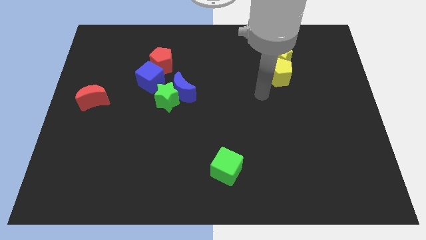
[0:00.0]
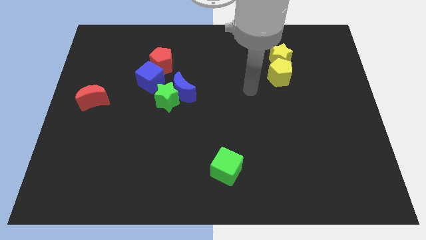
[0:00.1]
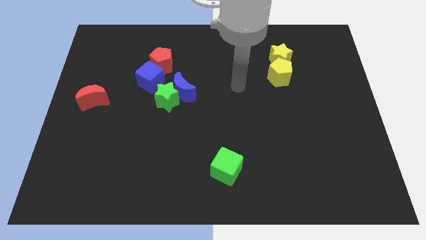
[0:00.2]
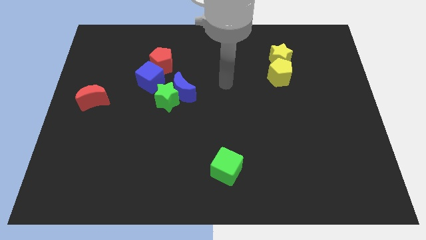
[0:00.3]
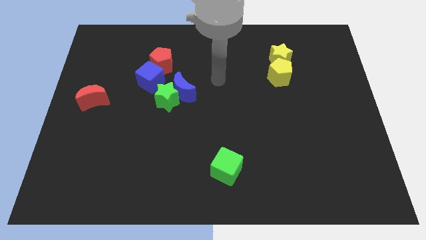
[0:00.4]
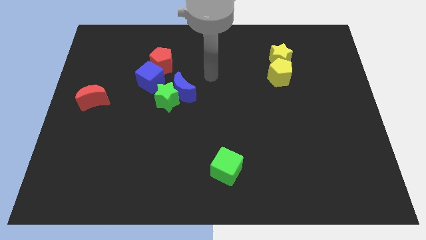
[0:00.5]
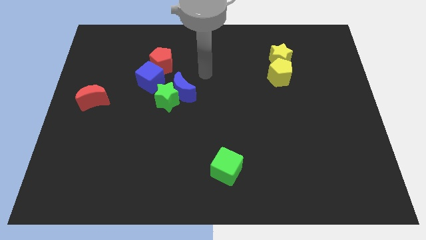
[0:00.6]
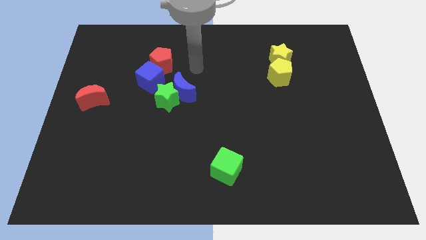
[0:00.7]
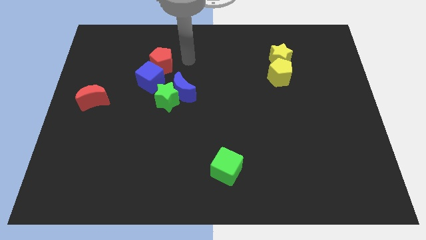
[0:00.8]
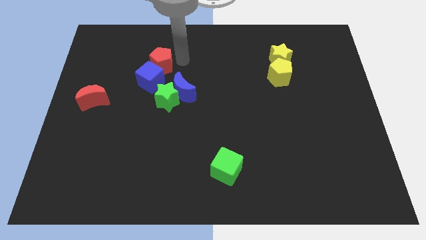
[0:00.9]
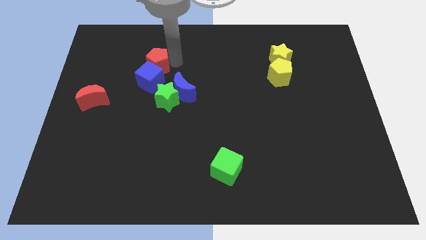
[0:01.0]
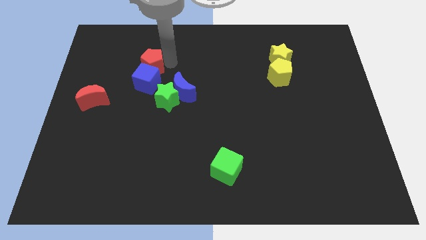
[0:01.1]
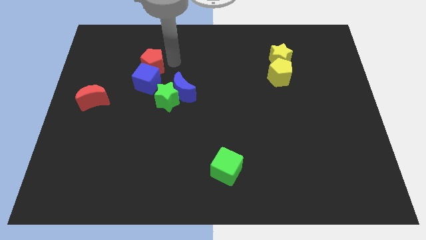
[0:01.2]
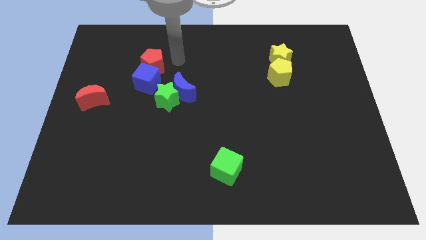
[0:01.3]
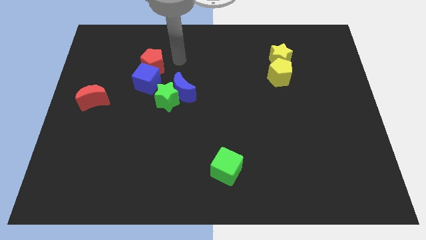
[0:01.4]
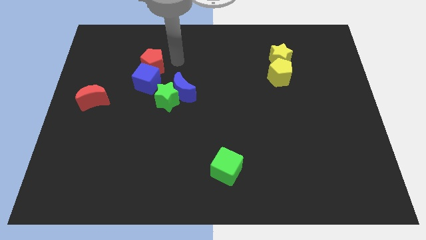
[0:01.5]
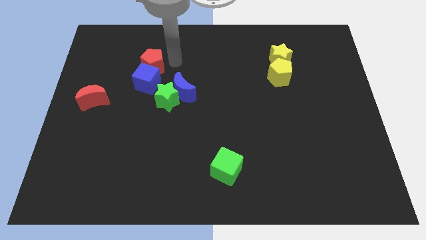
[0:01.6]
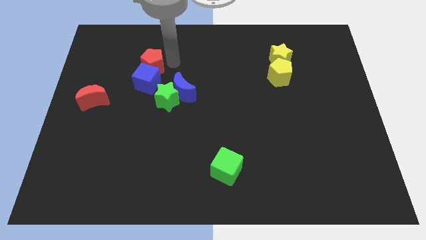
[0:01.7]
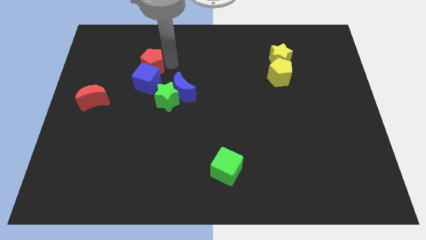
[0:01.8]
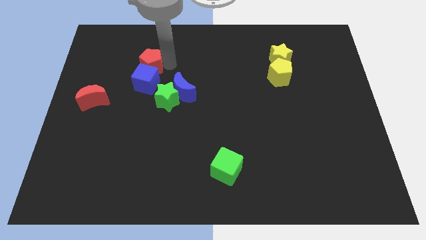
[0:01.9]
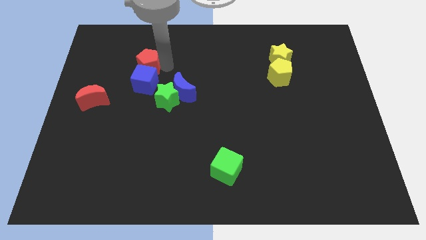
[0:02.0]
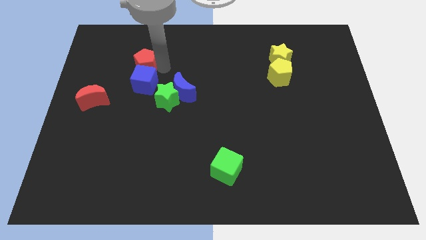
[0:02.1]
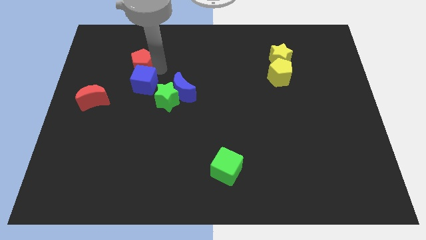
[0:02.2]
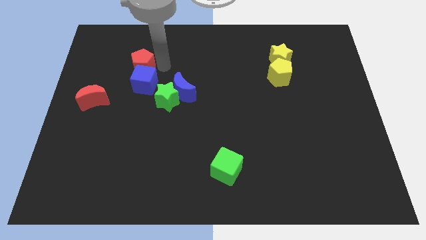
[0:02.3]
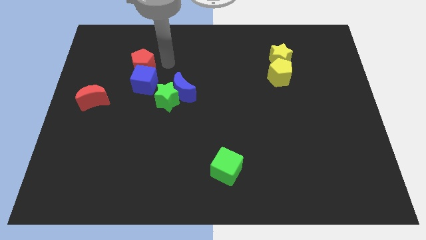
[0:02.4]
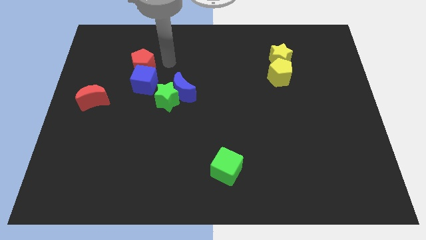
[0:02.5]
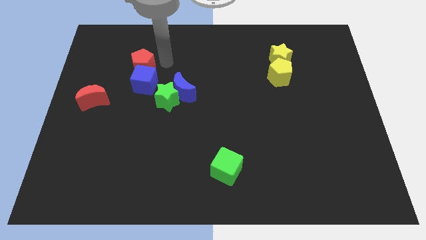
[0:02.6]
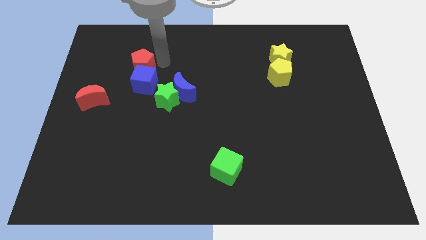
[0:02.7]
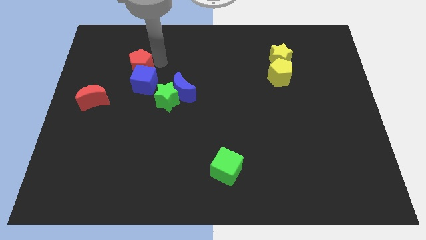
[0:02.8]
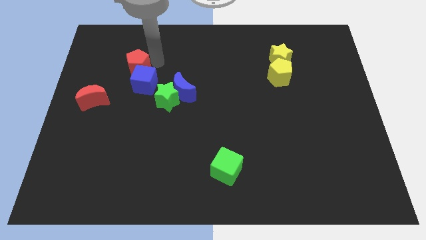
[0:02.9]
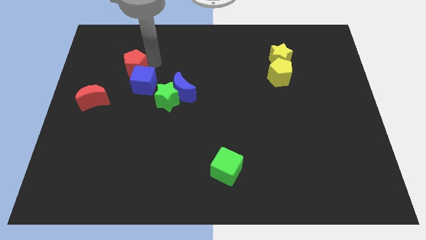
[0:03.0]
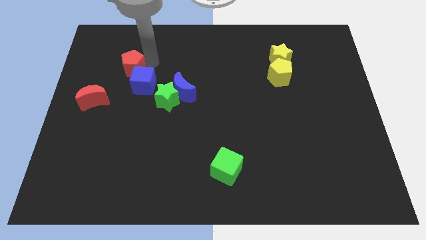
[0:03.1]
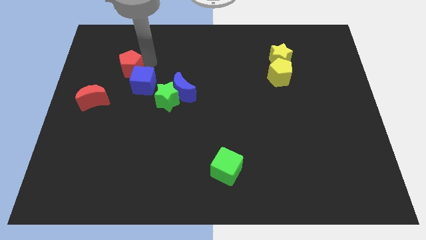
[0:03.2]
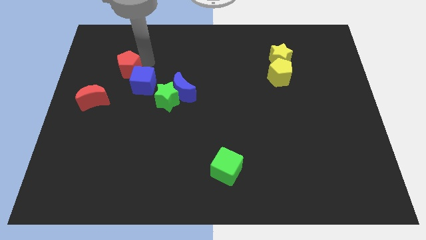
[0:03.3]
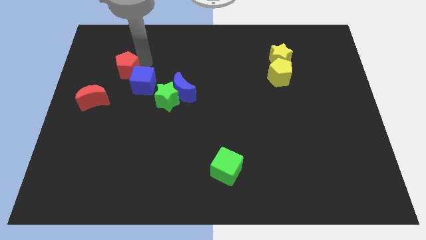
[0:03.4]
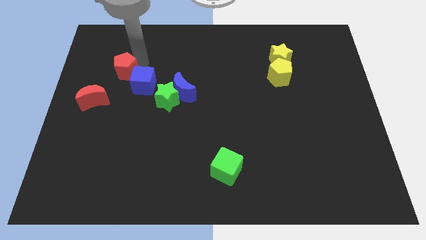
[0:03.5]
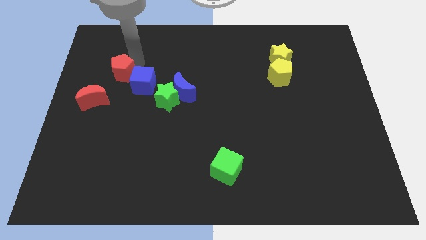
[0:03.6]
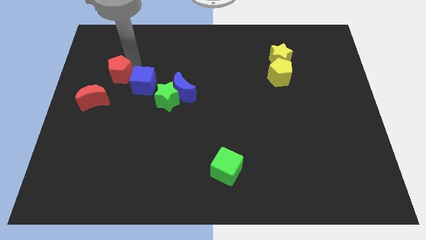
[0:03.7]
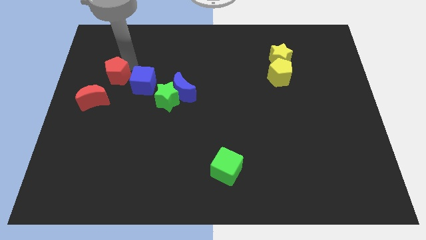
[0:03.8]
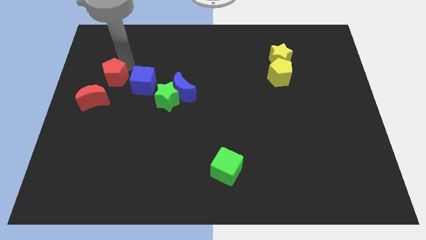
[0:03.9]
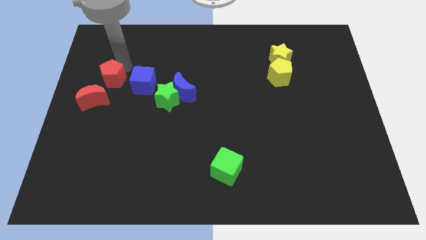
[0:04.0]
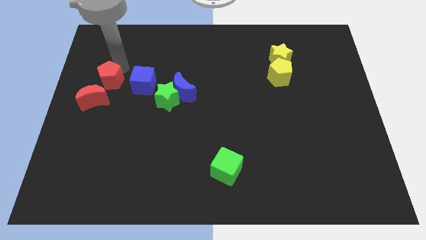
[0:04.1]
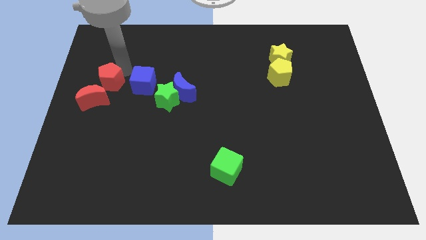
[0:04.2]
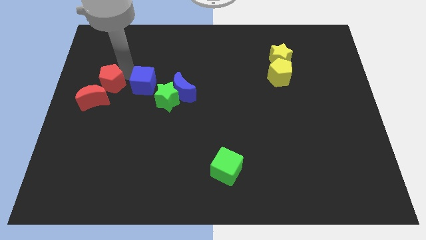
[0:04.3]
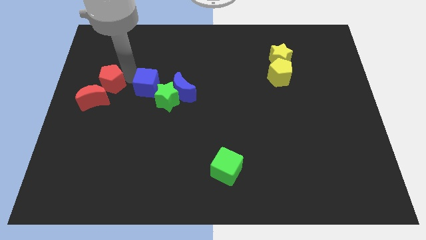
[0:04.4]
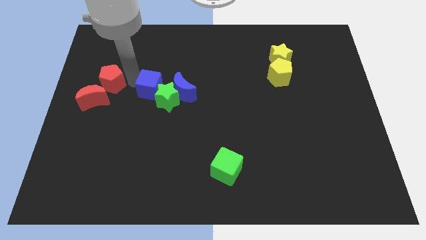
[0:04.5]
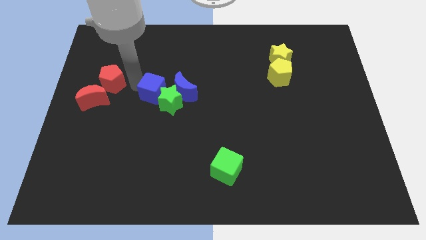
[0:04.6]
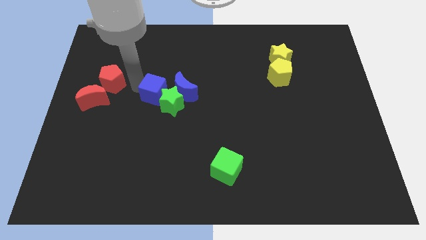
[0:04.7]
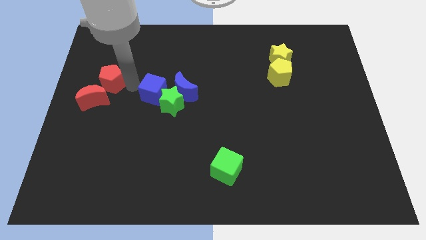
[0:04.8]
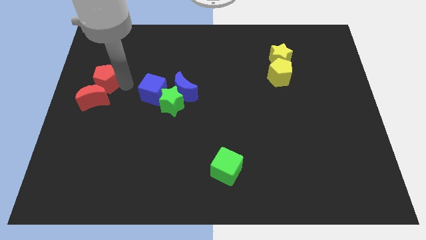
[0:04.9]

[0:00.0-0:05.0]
push the red pentagon to the left side

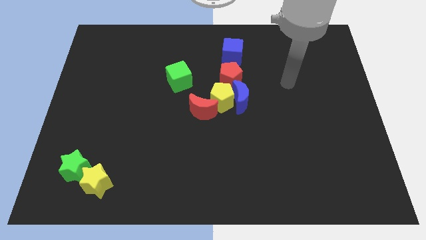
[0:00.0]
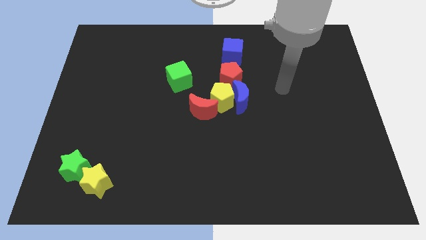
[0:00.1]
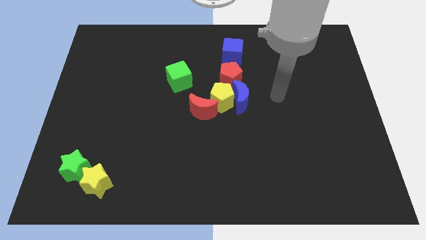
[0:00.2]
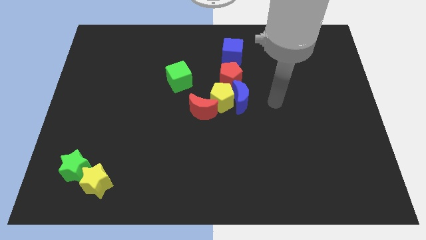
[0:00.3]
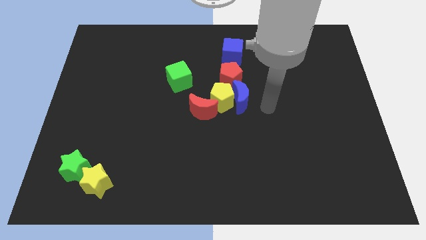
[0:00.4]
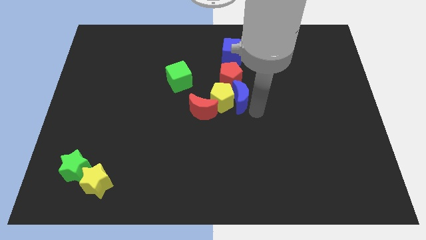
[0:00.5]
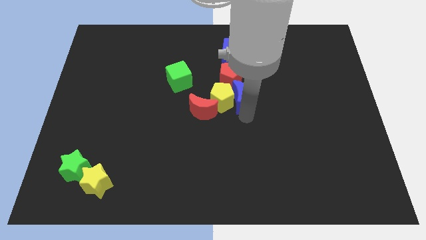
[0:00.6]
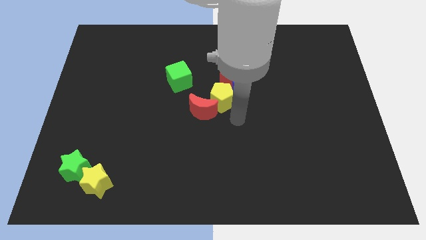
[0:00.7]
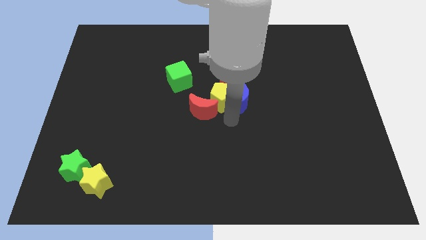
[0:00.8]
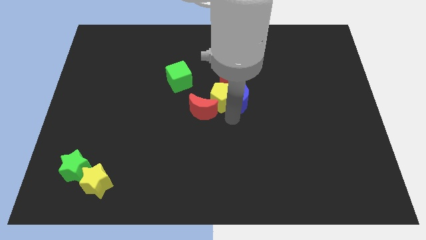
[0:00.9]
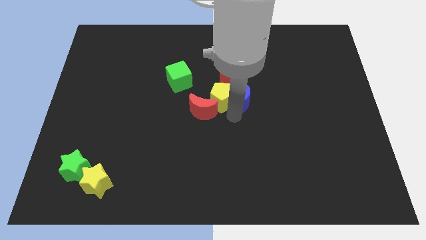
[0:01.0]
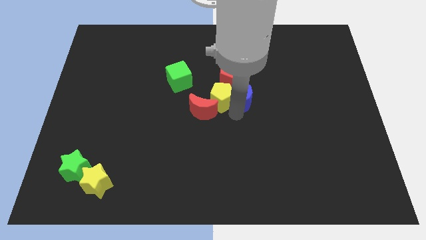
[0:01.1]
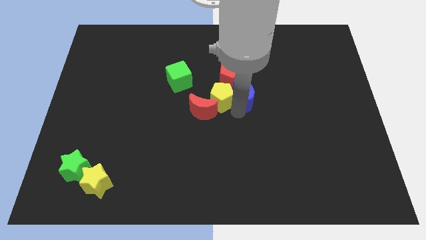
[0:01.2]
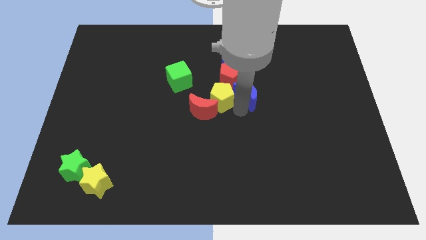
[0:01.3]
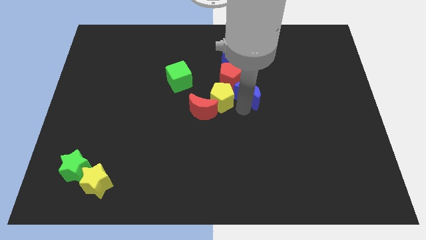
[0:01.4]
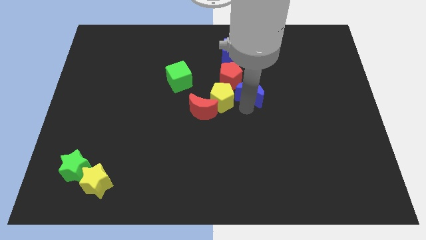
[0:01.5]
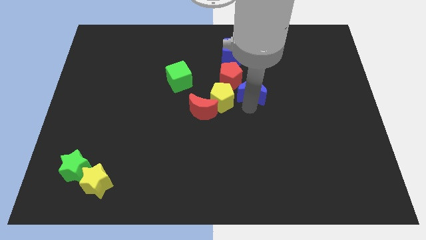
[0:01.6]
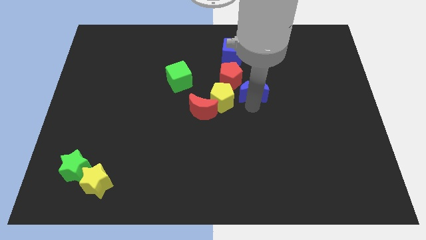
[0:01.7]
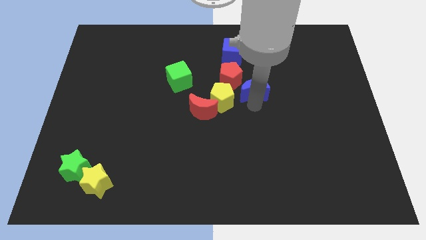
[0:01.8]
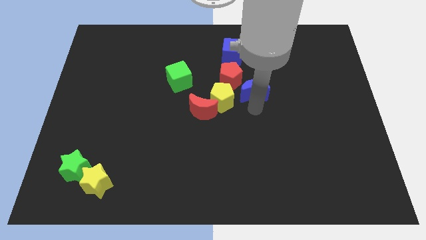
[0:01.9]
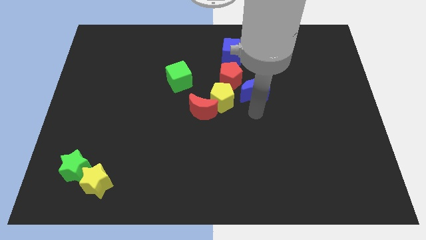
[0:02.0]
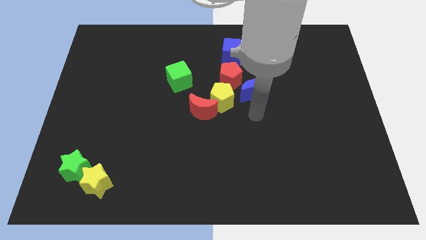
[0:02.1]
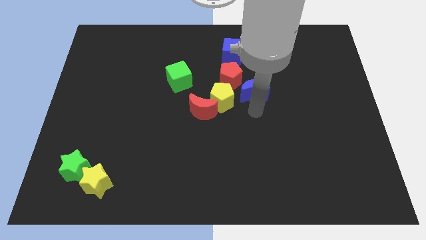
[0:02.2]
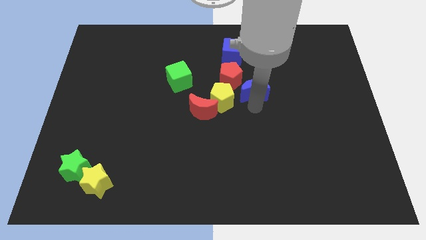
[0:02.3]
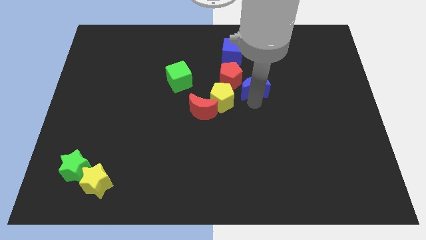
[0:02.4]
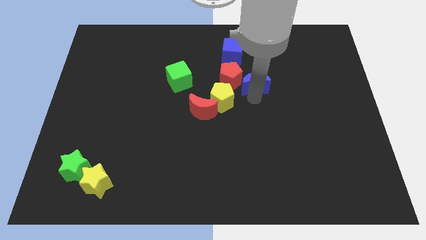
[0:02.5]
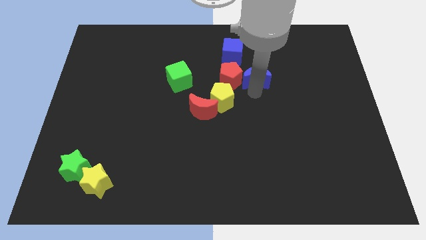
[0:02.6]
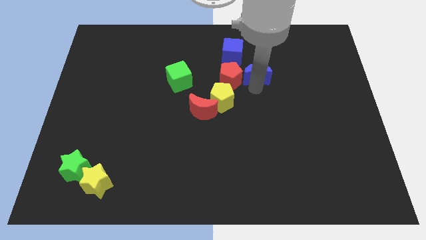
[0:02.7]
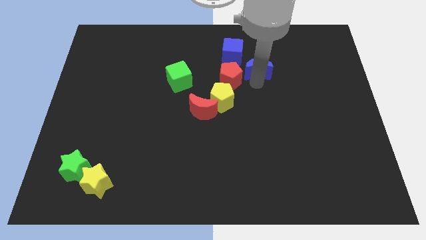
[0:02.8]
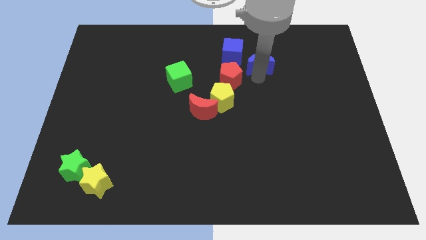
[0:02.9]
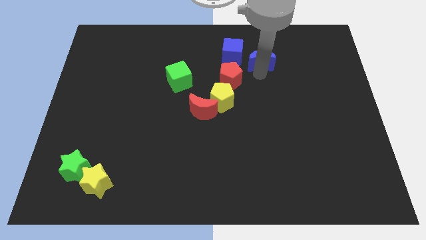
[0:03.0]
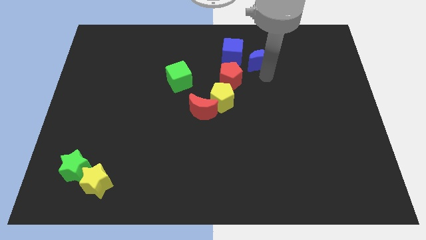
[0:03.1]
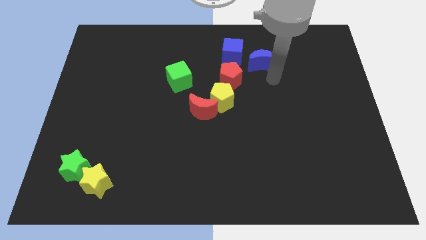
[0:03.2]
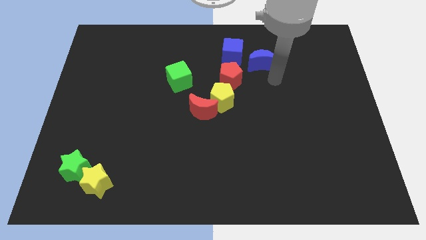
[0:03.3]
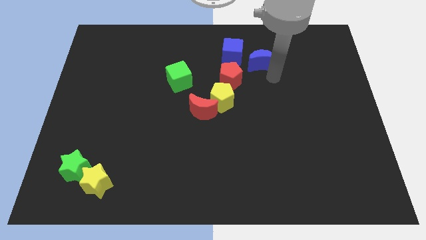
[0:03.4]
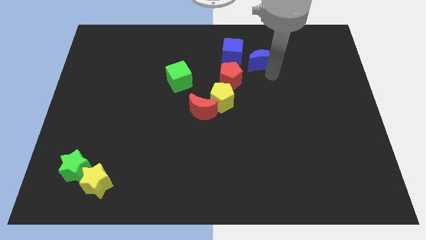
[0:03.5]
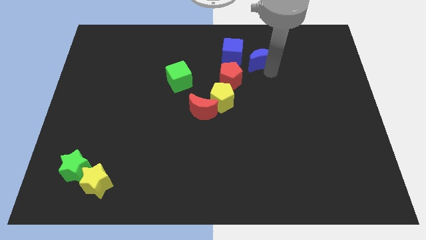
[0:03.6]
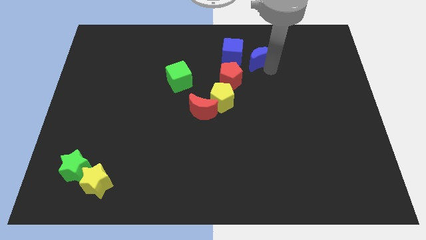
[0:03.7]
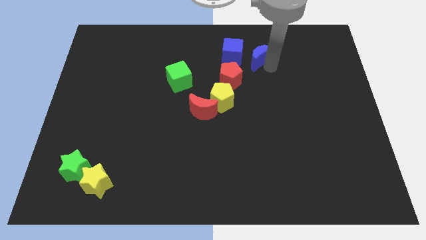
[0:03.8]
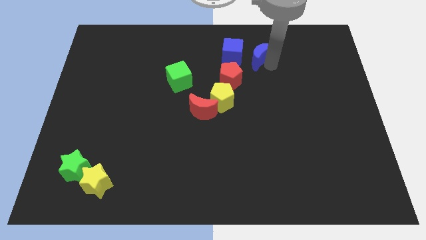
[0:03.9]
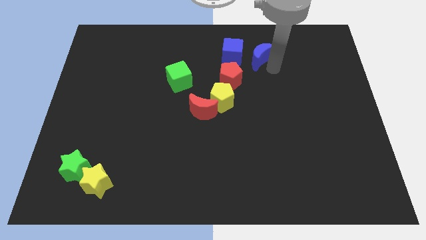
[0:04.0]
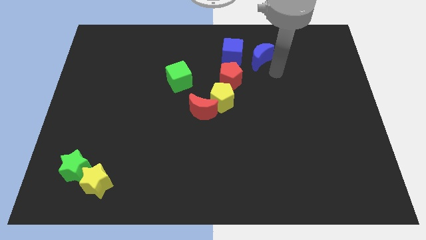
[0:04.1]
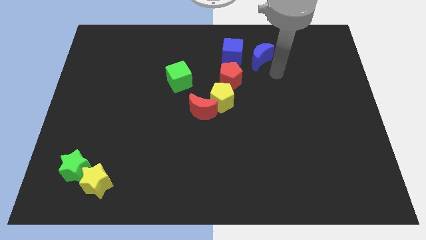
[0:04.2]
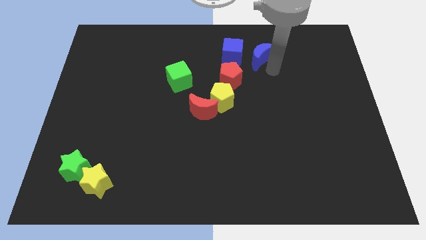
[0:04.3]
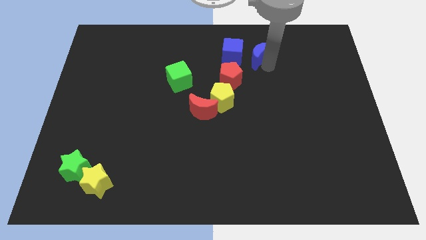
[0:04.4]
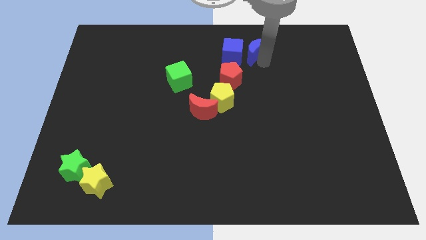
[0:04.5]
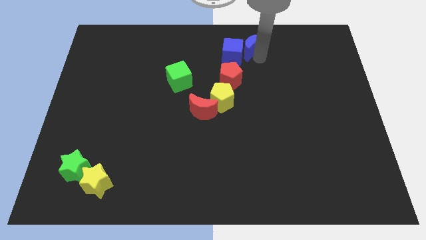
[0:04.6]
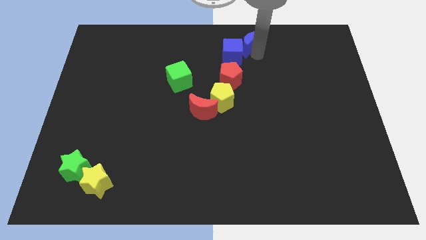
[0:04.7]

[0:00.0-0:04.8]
move the blue moon to the top
